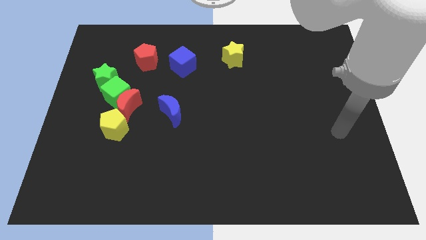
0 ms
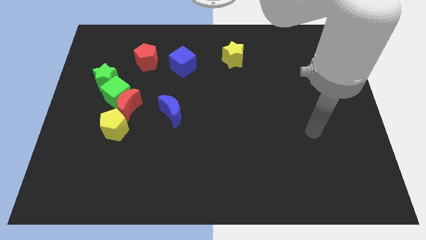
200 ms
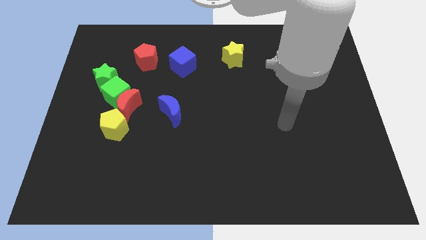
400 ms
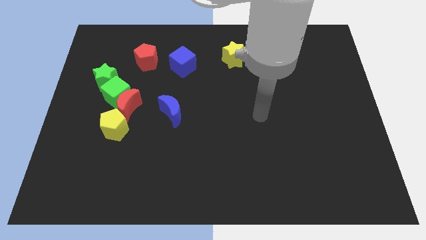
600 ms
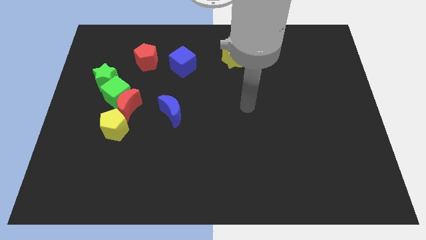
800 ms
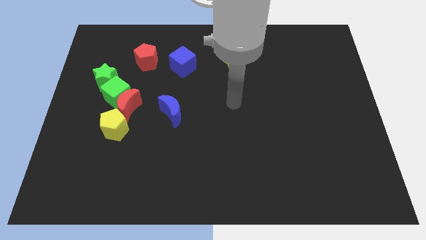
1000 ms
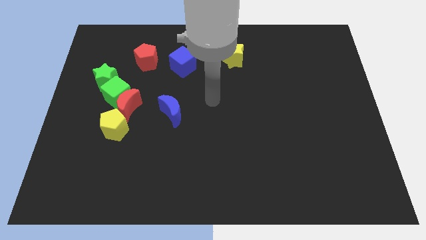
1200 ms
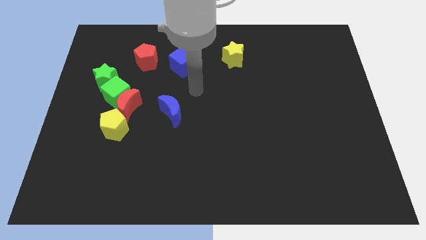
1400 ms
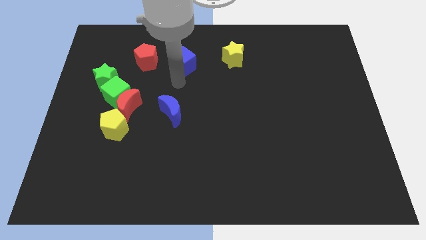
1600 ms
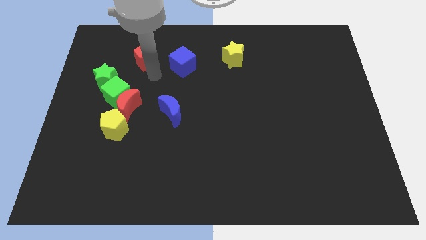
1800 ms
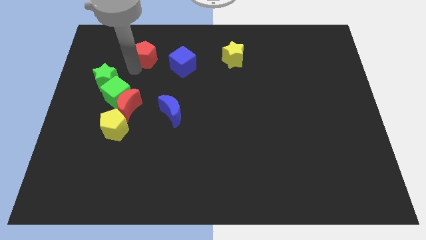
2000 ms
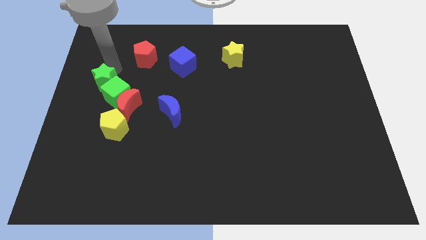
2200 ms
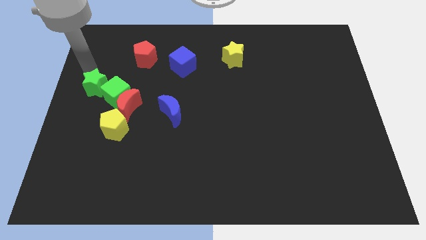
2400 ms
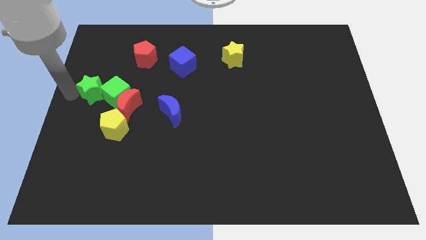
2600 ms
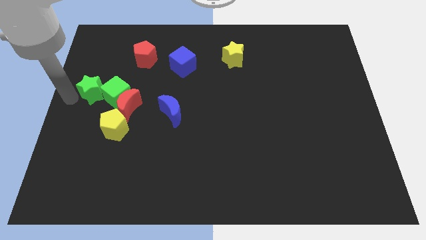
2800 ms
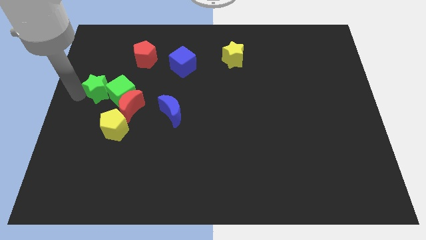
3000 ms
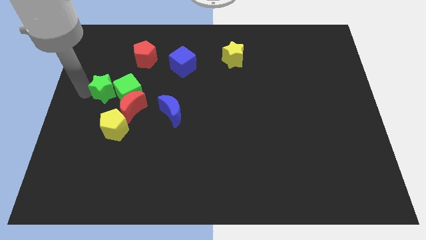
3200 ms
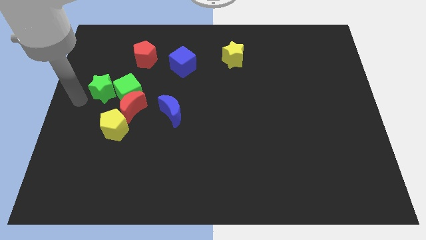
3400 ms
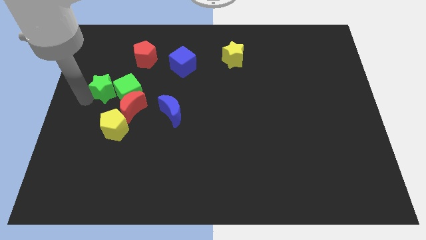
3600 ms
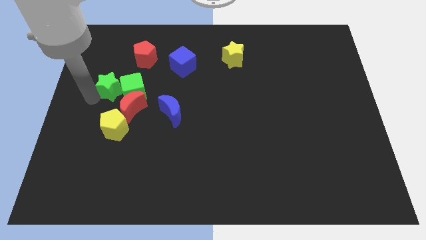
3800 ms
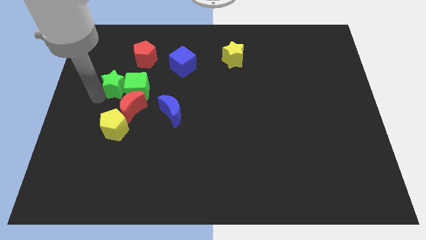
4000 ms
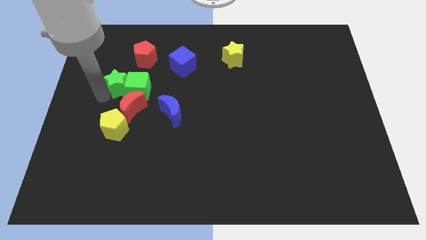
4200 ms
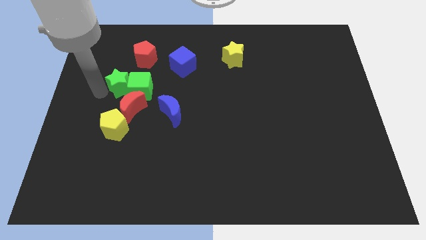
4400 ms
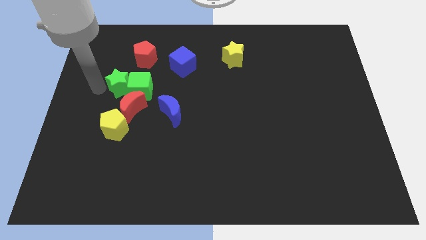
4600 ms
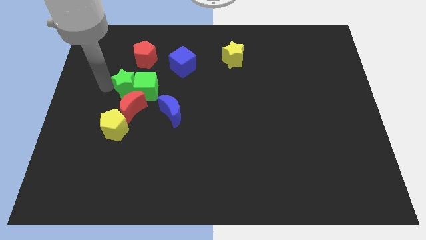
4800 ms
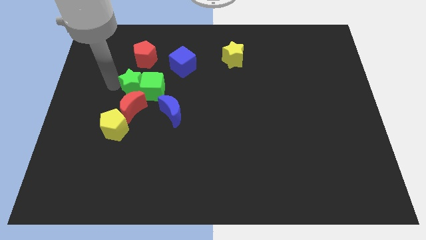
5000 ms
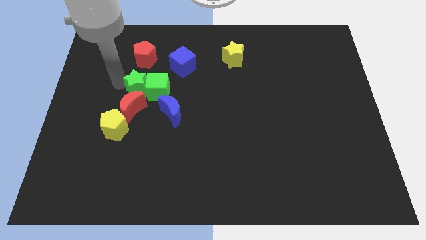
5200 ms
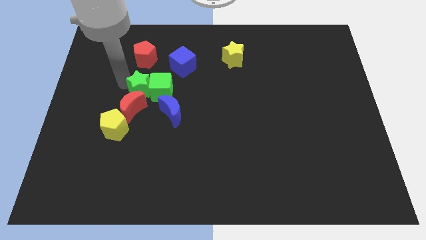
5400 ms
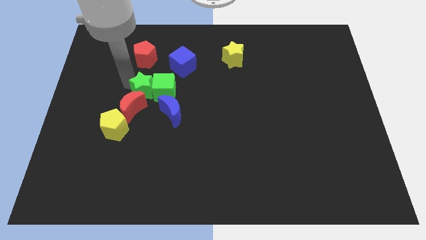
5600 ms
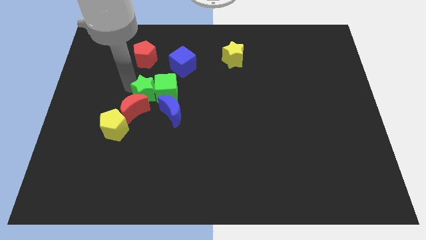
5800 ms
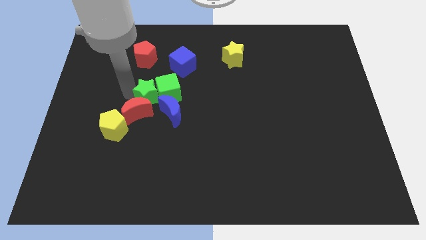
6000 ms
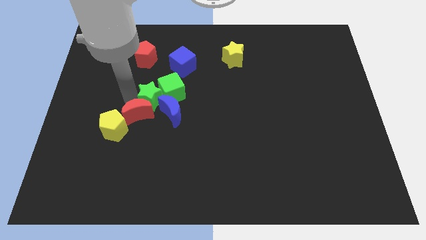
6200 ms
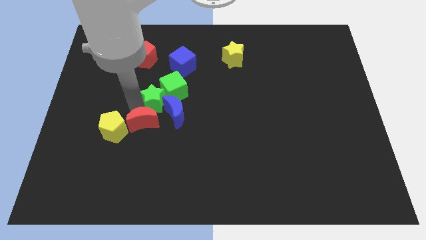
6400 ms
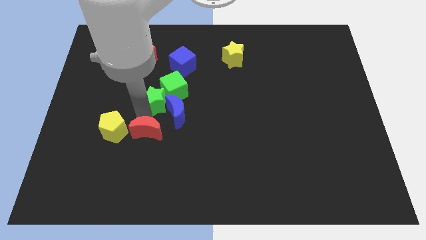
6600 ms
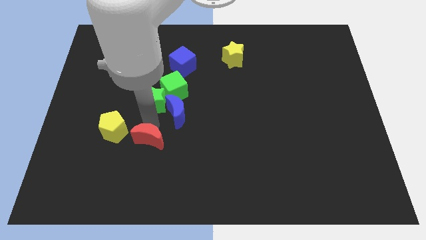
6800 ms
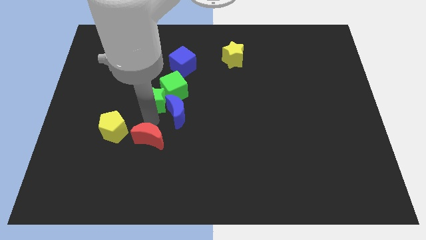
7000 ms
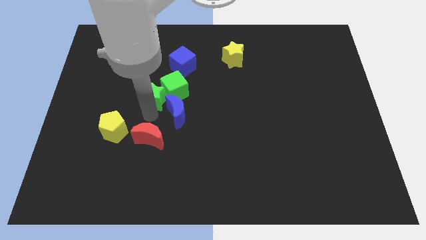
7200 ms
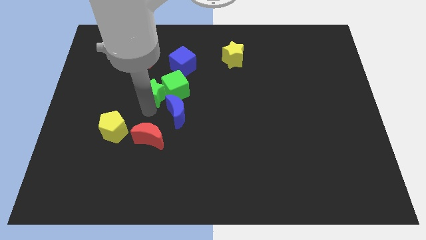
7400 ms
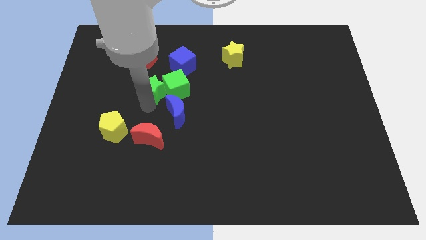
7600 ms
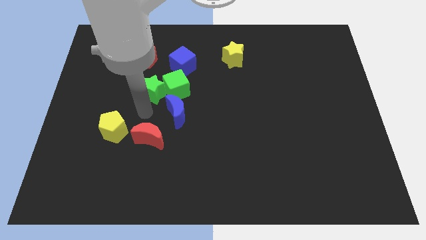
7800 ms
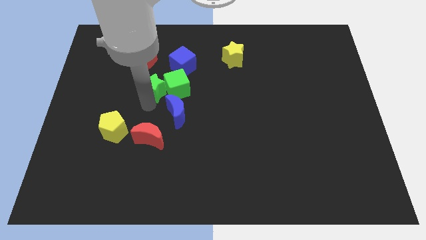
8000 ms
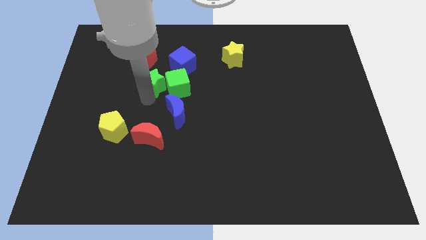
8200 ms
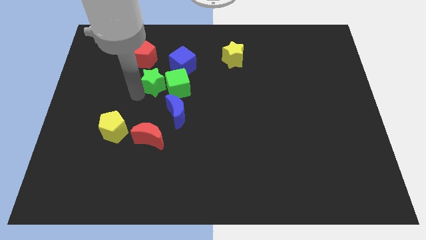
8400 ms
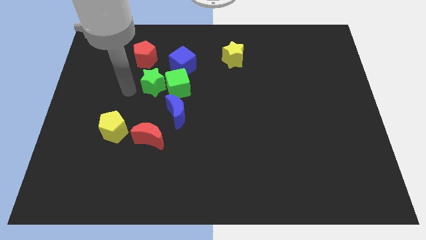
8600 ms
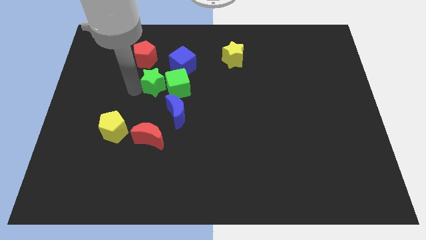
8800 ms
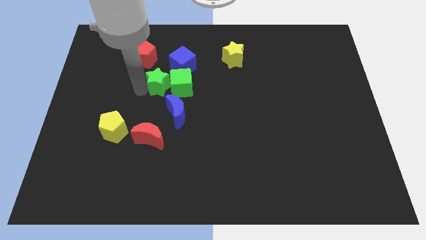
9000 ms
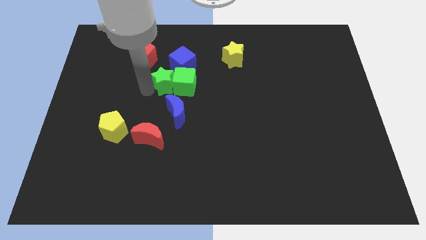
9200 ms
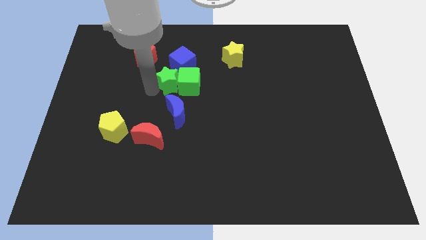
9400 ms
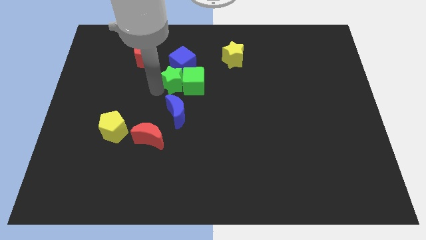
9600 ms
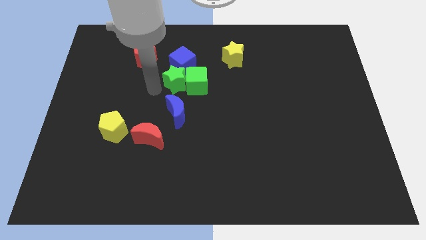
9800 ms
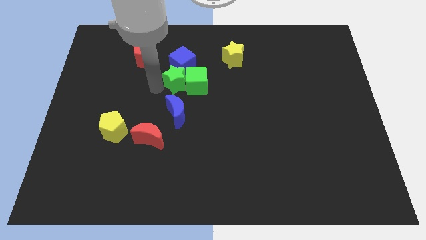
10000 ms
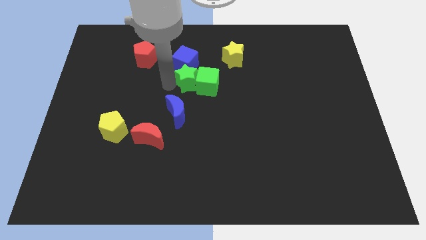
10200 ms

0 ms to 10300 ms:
move the green star right

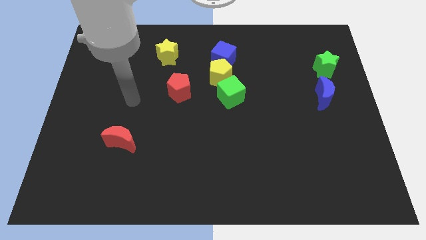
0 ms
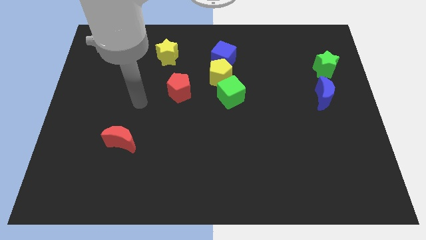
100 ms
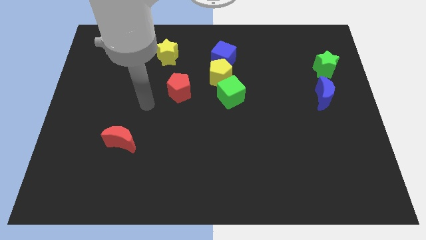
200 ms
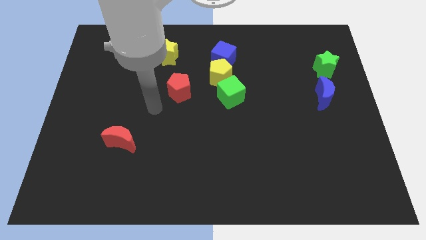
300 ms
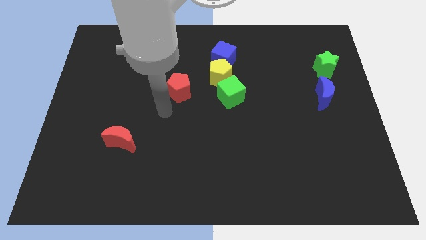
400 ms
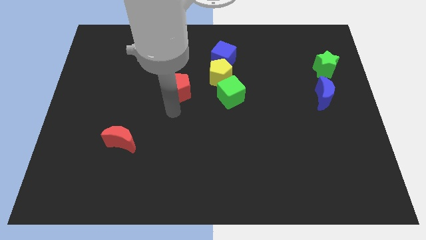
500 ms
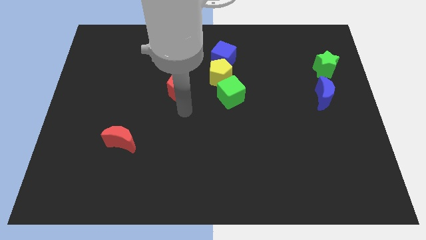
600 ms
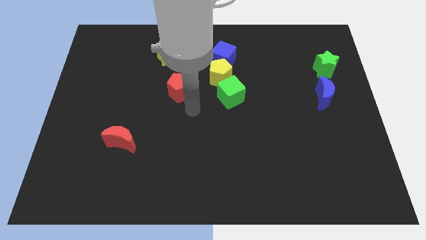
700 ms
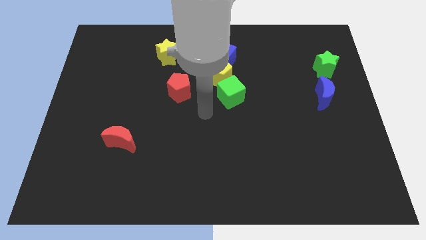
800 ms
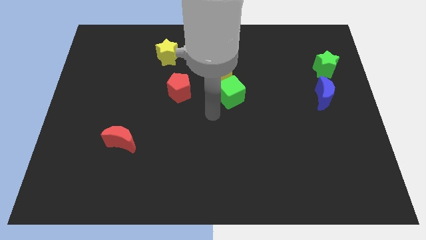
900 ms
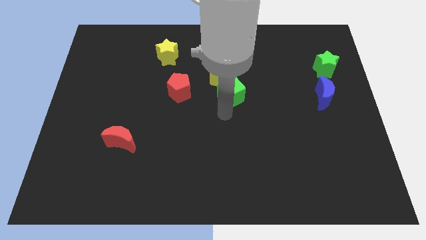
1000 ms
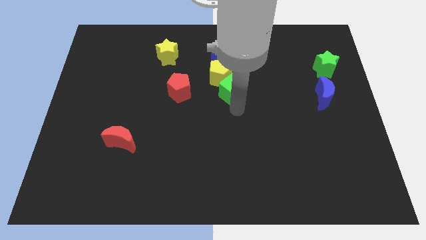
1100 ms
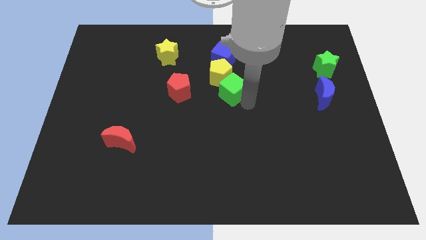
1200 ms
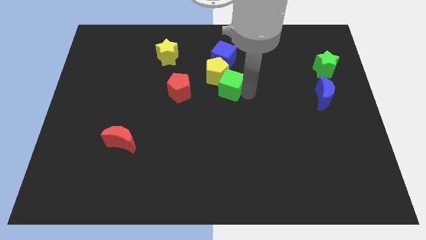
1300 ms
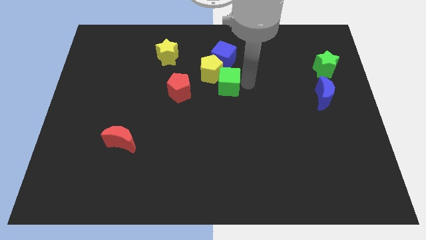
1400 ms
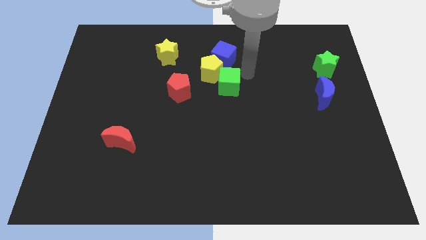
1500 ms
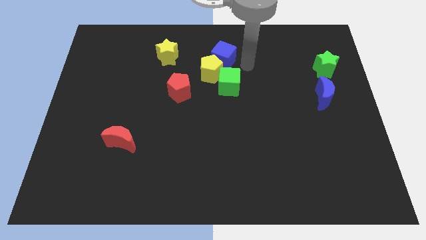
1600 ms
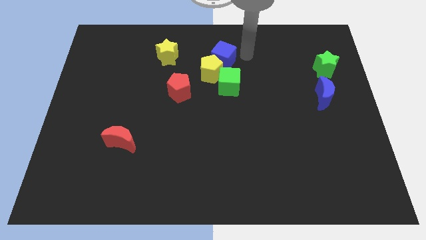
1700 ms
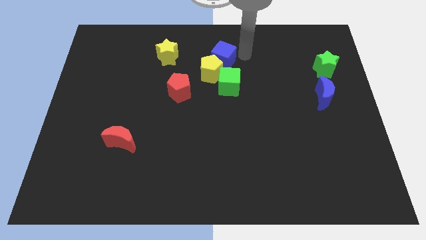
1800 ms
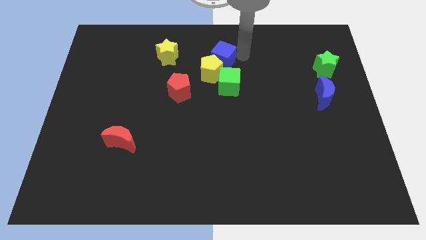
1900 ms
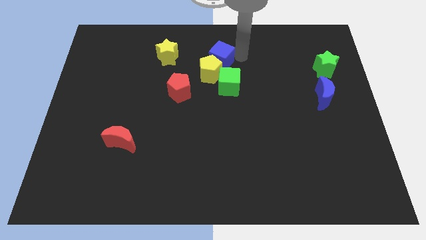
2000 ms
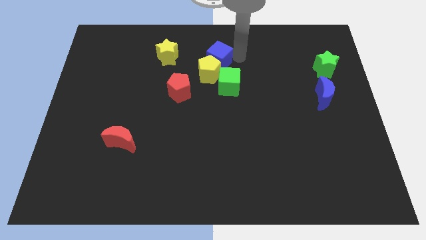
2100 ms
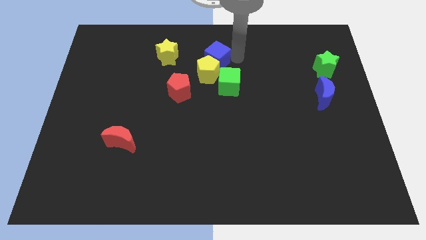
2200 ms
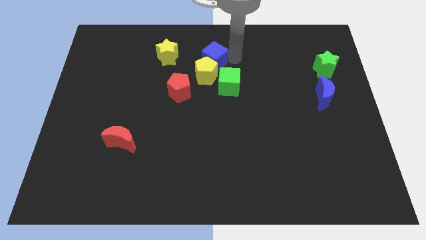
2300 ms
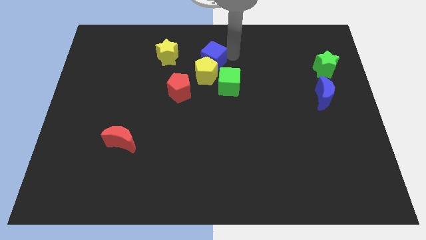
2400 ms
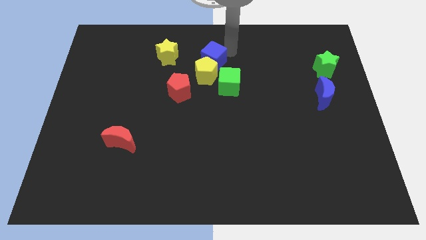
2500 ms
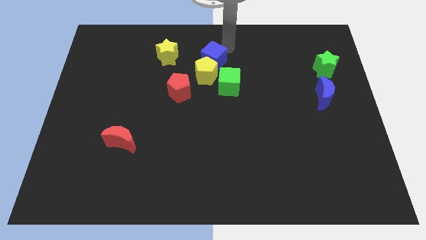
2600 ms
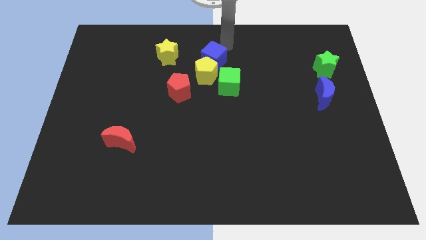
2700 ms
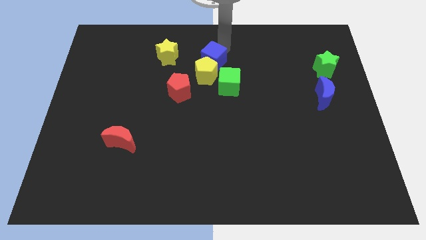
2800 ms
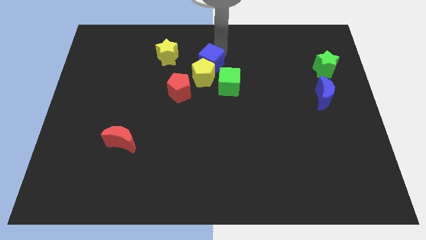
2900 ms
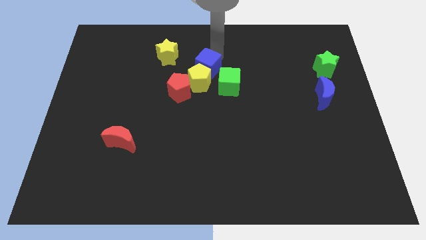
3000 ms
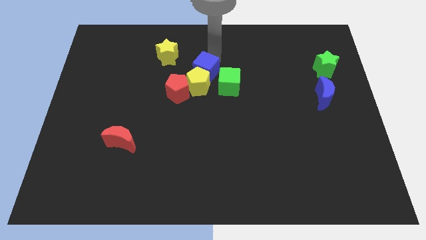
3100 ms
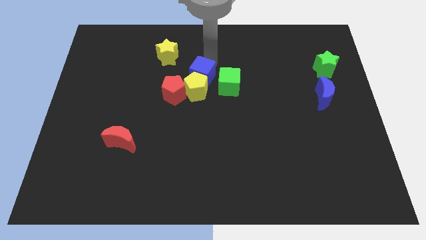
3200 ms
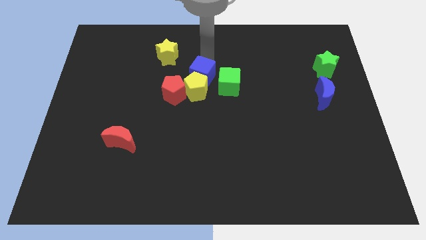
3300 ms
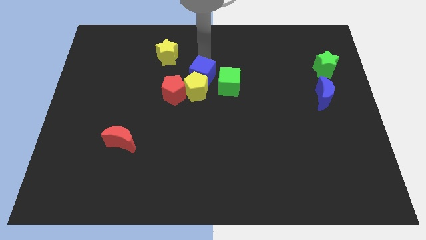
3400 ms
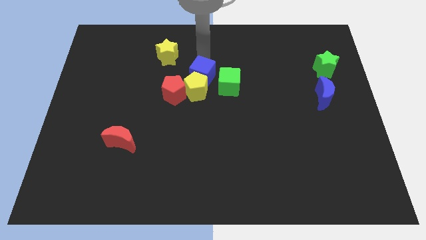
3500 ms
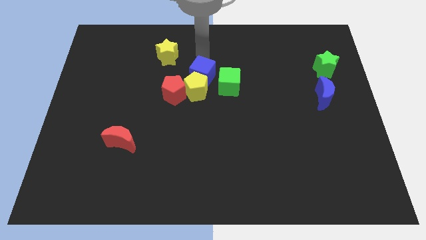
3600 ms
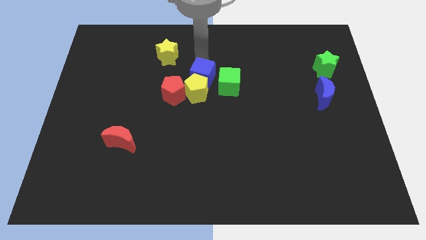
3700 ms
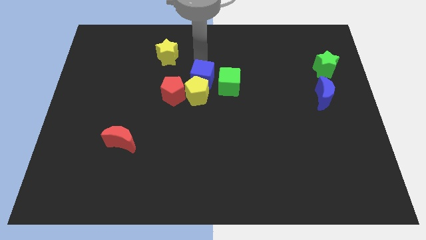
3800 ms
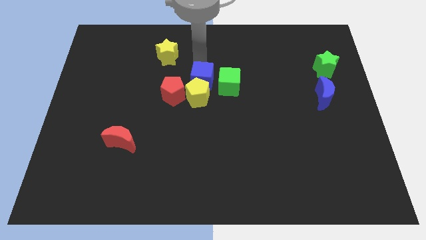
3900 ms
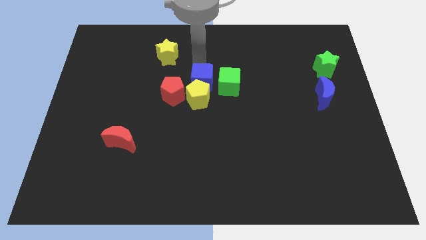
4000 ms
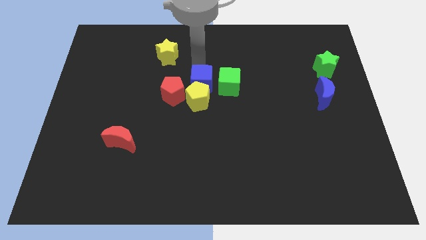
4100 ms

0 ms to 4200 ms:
slightly slide the blue cube downwards
